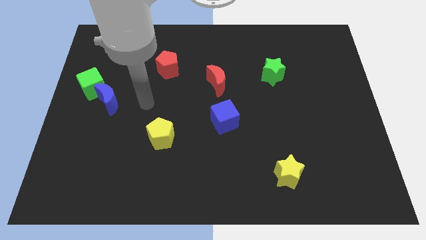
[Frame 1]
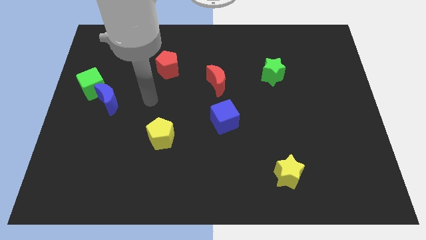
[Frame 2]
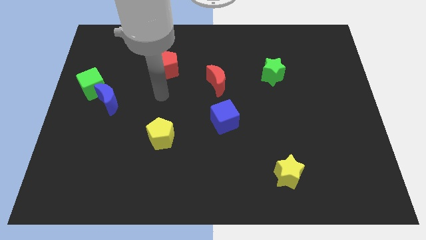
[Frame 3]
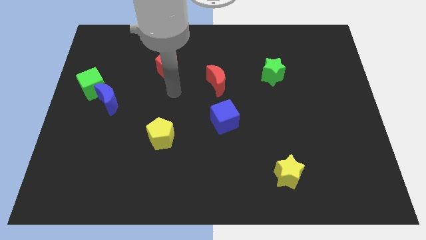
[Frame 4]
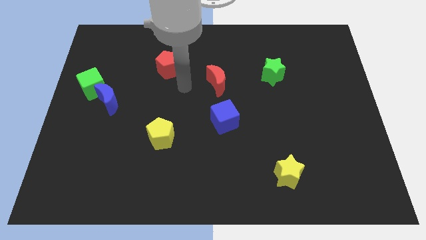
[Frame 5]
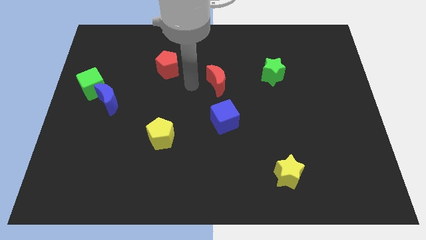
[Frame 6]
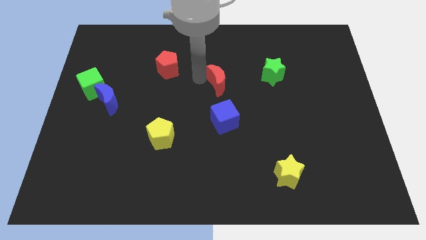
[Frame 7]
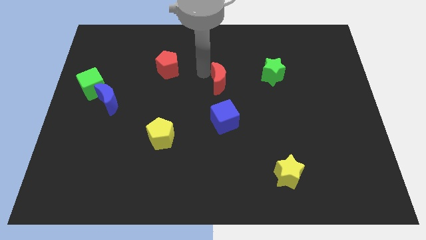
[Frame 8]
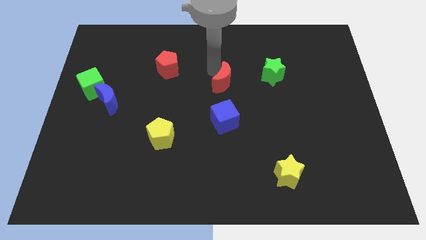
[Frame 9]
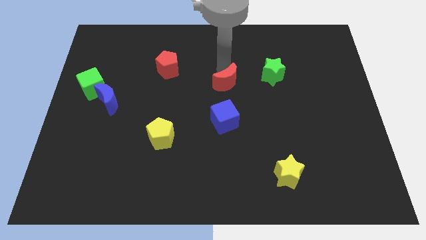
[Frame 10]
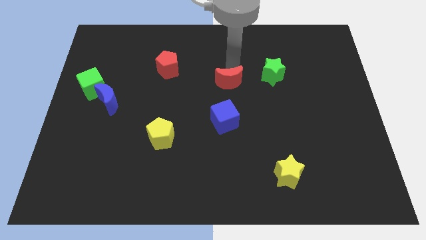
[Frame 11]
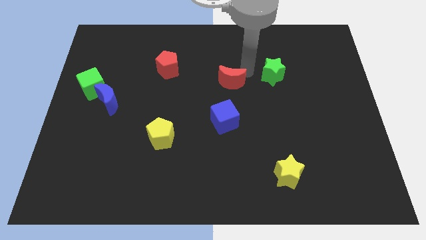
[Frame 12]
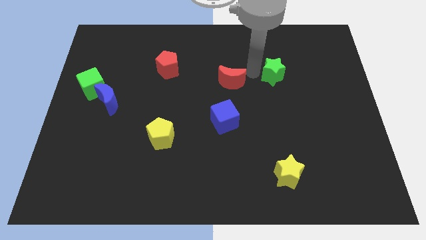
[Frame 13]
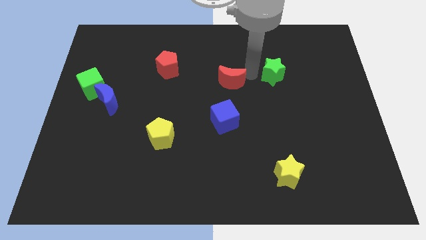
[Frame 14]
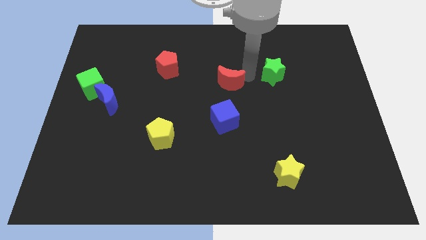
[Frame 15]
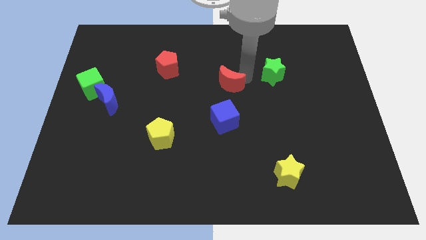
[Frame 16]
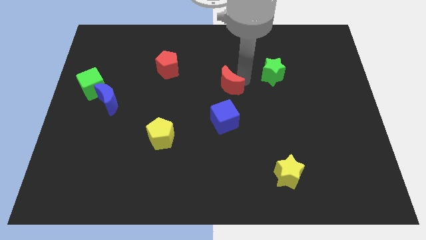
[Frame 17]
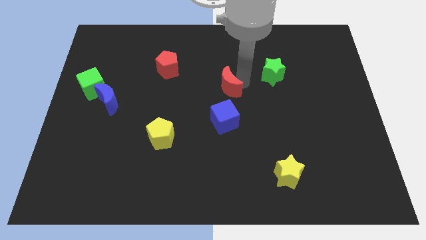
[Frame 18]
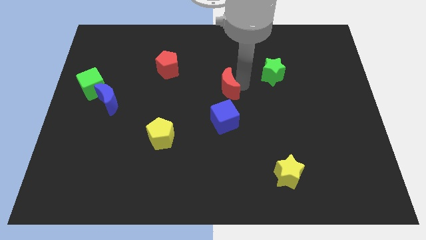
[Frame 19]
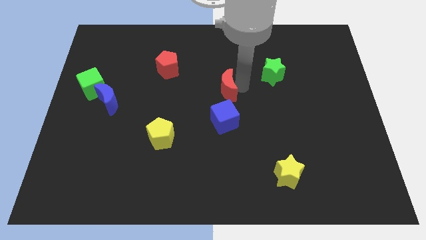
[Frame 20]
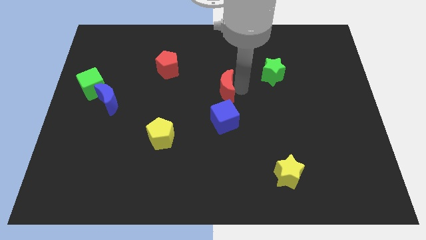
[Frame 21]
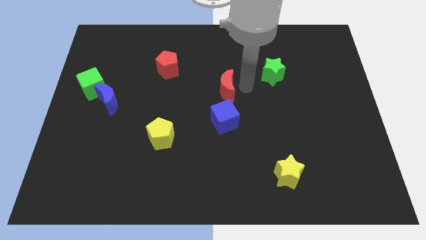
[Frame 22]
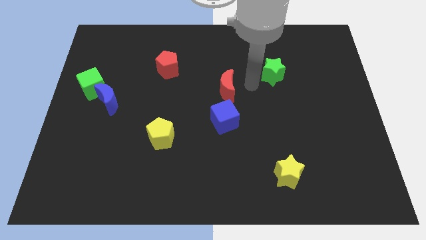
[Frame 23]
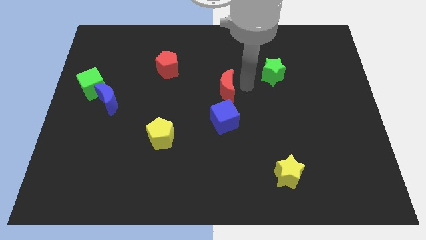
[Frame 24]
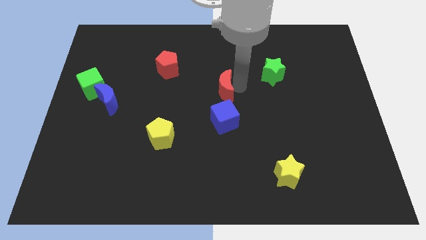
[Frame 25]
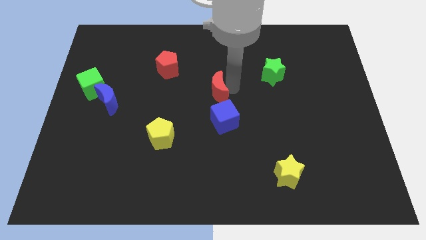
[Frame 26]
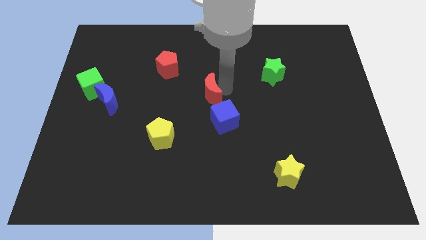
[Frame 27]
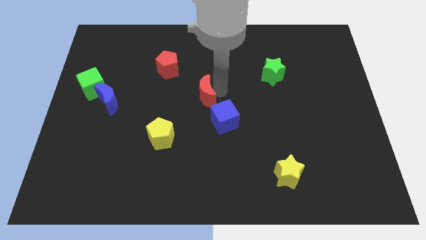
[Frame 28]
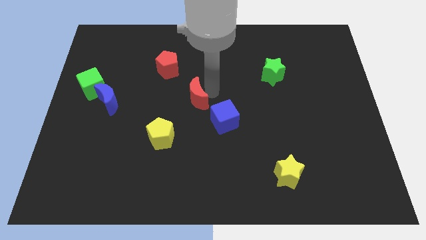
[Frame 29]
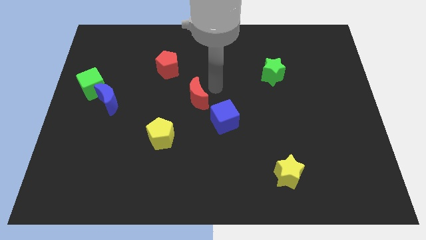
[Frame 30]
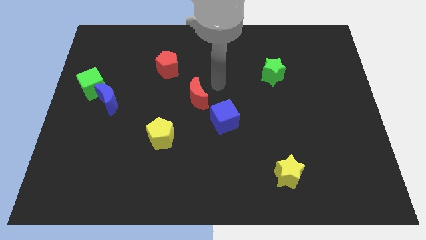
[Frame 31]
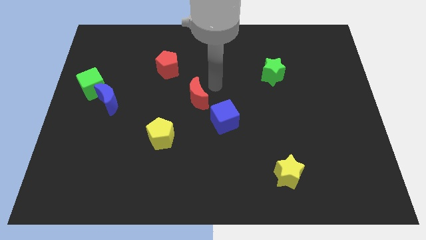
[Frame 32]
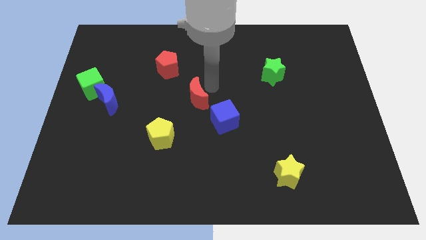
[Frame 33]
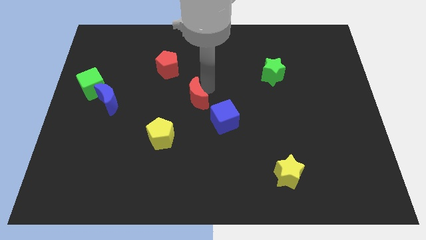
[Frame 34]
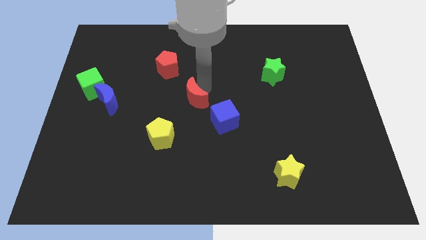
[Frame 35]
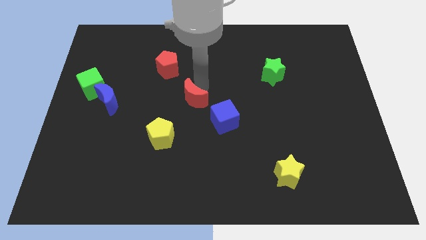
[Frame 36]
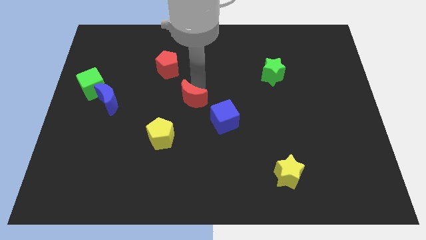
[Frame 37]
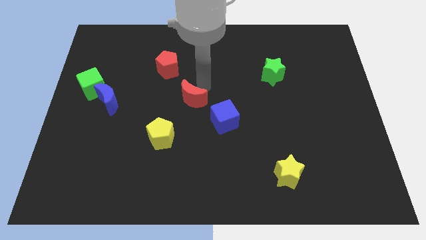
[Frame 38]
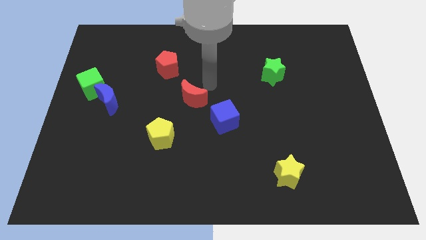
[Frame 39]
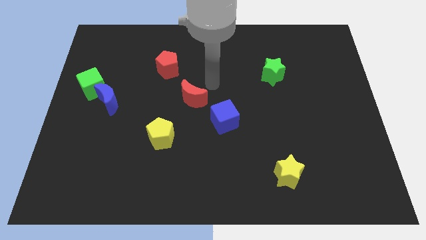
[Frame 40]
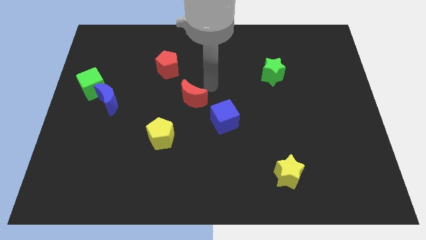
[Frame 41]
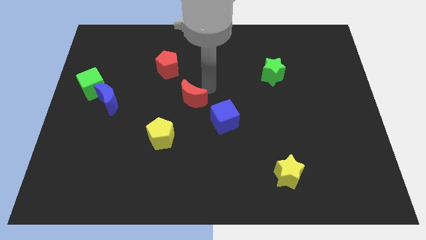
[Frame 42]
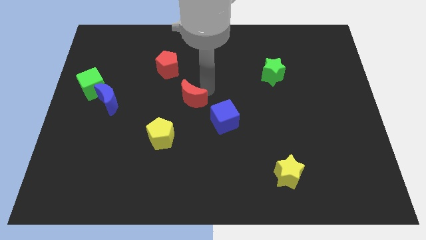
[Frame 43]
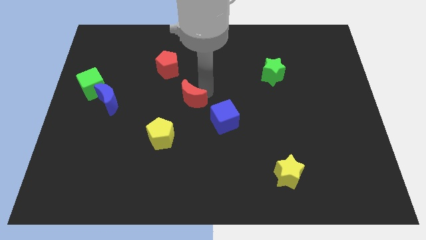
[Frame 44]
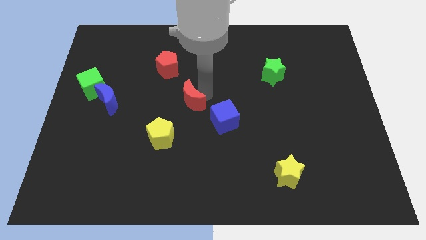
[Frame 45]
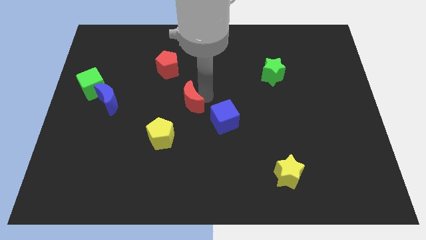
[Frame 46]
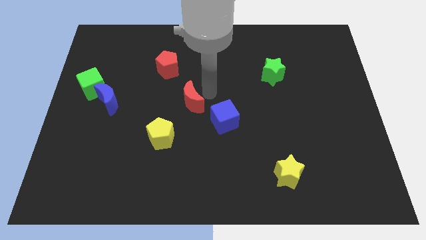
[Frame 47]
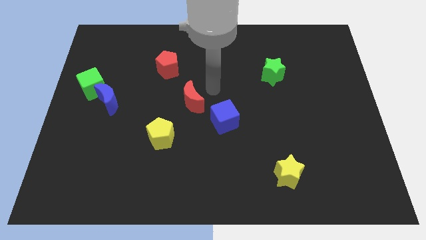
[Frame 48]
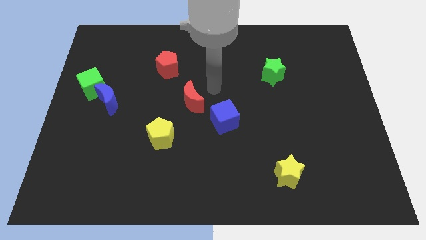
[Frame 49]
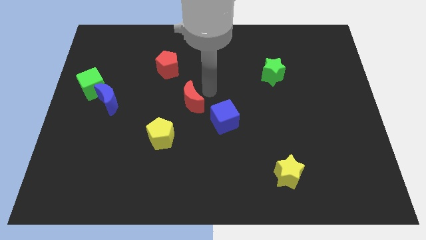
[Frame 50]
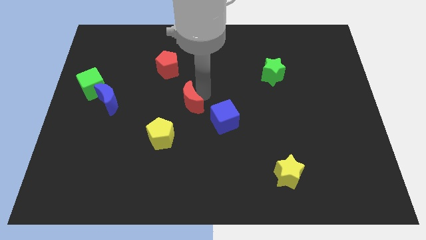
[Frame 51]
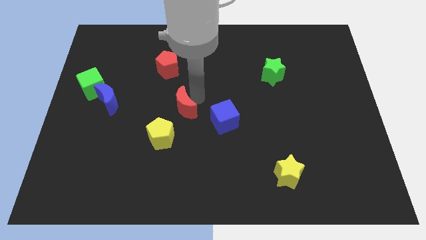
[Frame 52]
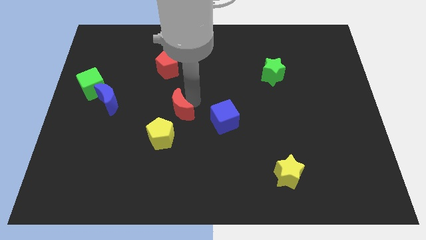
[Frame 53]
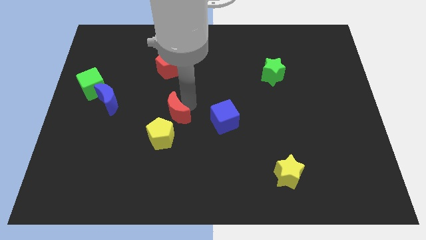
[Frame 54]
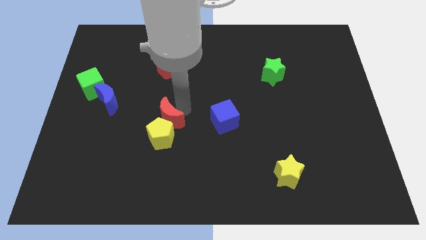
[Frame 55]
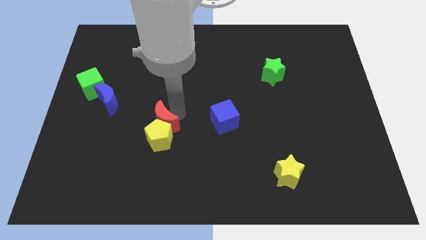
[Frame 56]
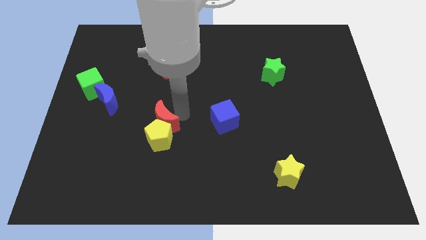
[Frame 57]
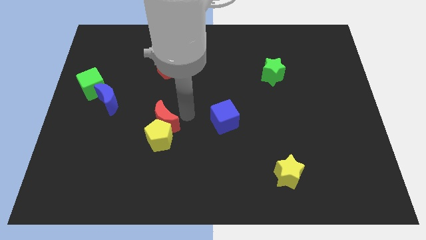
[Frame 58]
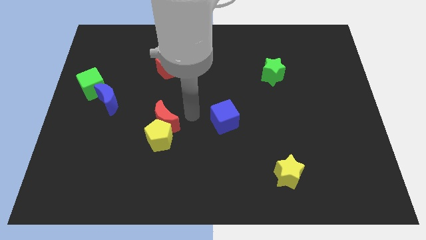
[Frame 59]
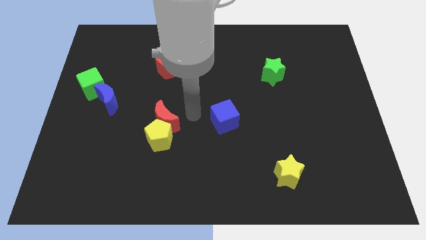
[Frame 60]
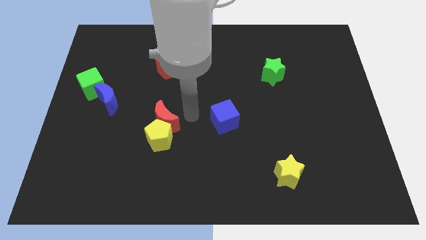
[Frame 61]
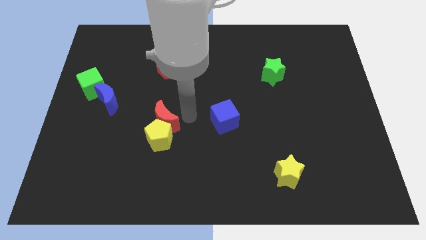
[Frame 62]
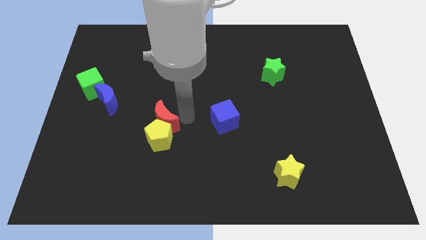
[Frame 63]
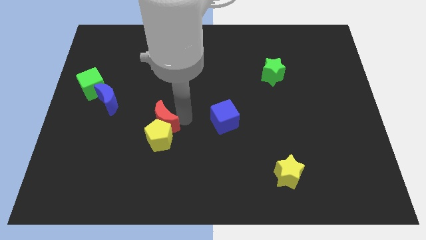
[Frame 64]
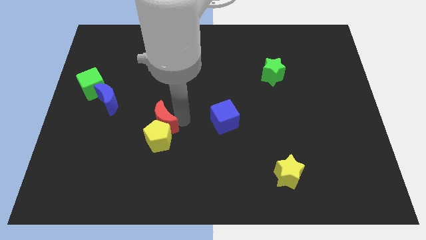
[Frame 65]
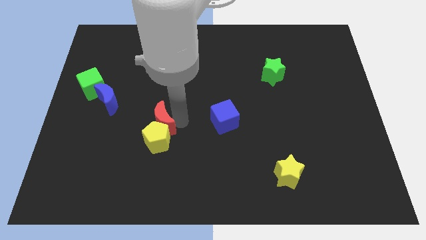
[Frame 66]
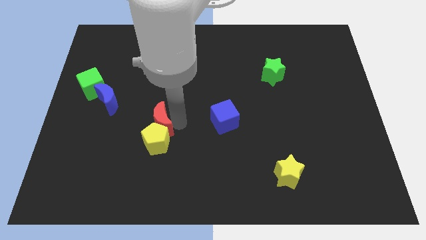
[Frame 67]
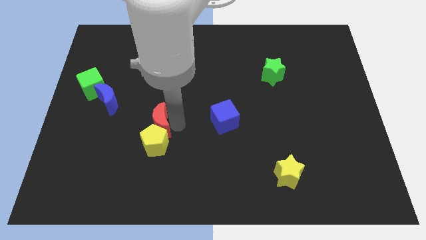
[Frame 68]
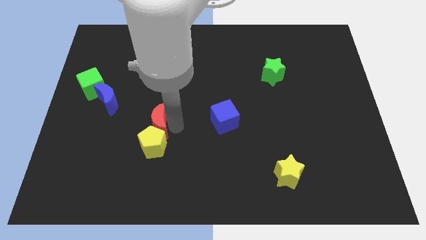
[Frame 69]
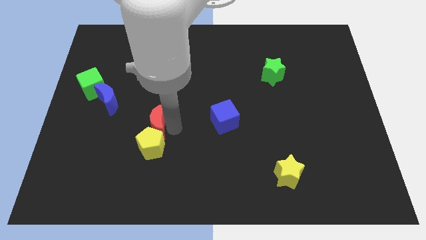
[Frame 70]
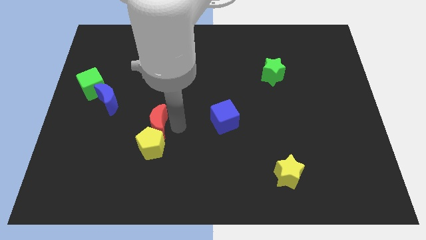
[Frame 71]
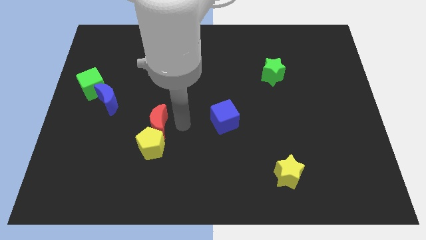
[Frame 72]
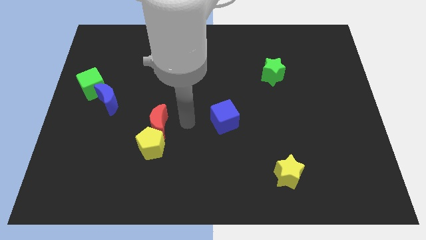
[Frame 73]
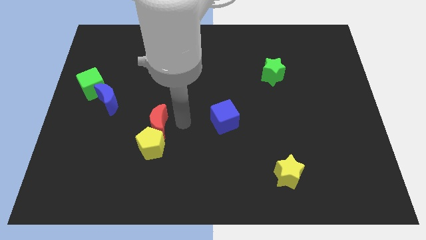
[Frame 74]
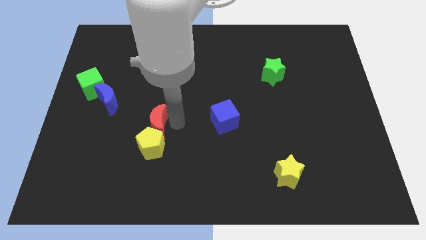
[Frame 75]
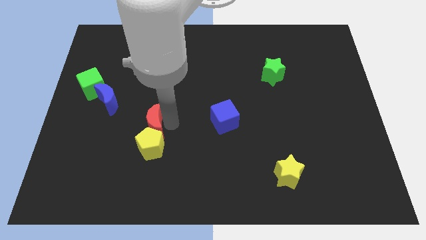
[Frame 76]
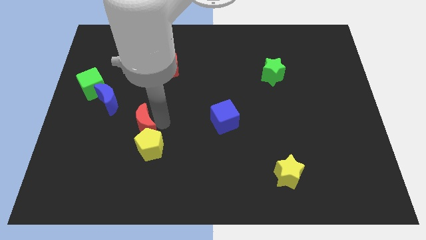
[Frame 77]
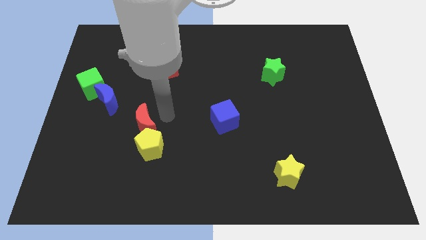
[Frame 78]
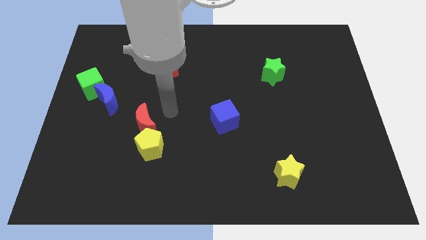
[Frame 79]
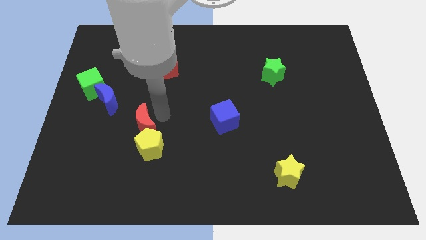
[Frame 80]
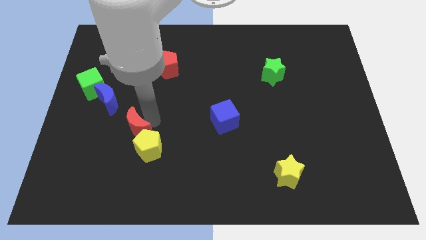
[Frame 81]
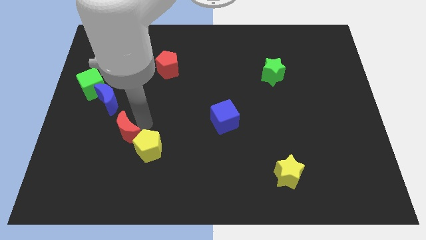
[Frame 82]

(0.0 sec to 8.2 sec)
move the red moon just left of the yellow pentagon
